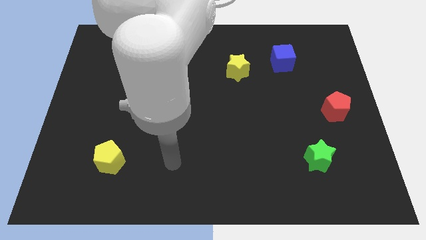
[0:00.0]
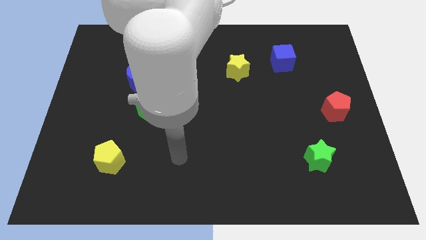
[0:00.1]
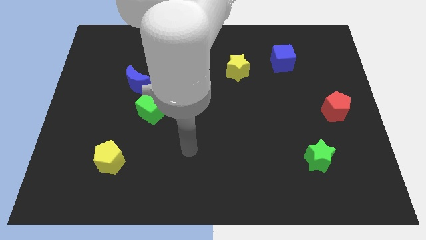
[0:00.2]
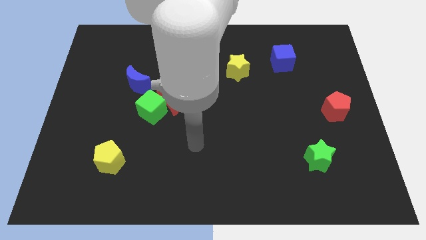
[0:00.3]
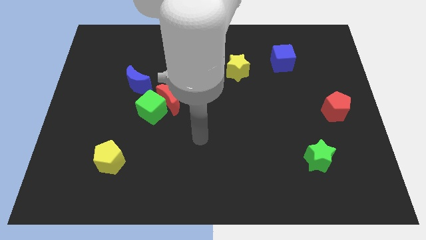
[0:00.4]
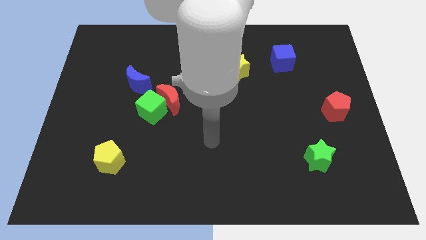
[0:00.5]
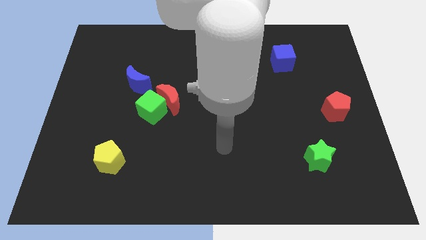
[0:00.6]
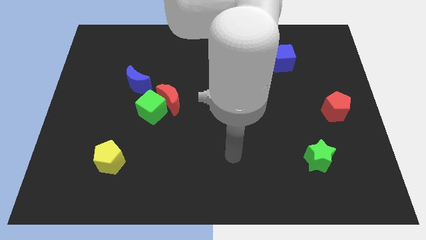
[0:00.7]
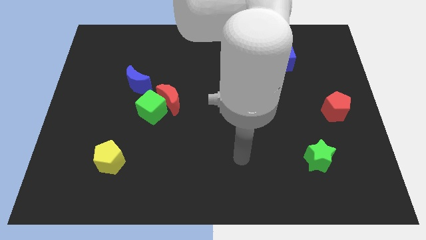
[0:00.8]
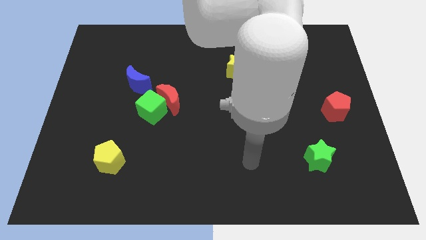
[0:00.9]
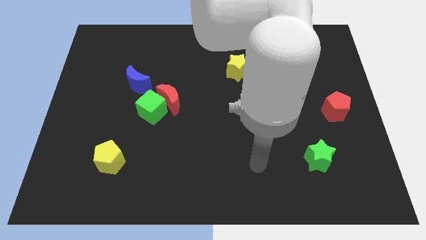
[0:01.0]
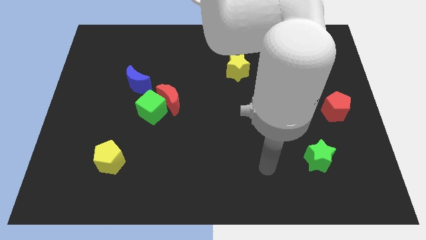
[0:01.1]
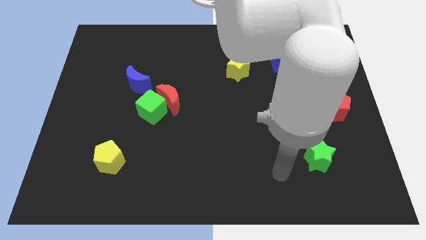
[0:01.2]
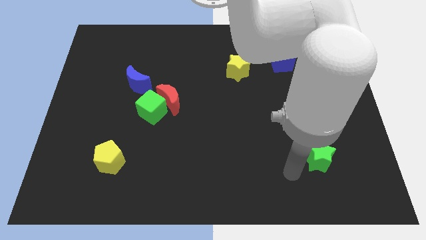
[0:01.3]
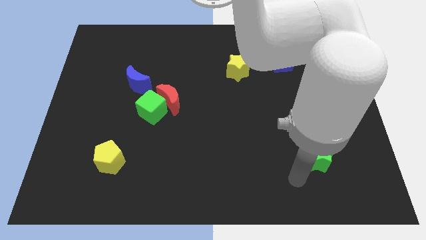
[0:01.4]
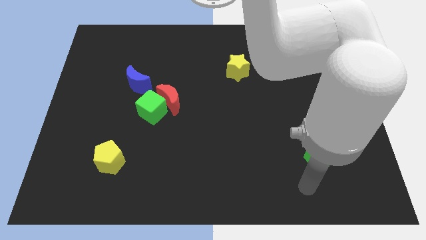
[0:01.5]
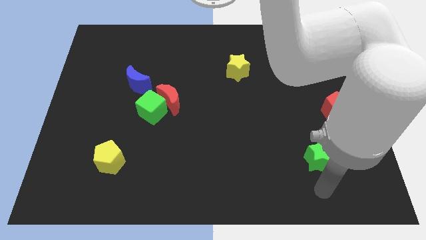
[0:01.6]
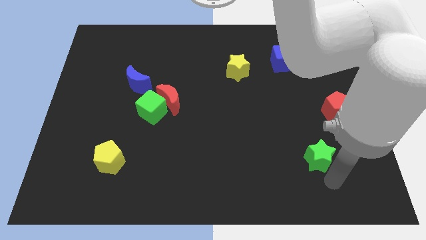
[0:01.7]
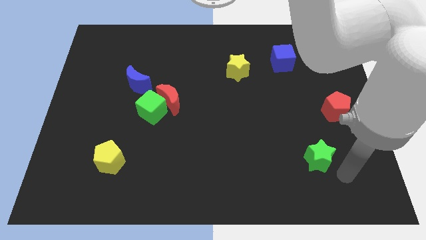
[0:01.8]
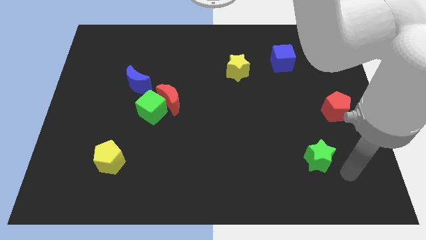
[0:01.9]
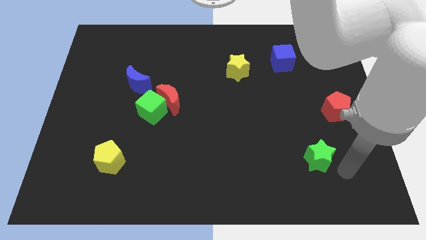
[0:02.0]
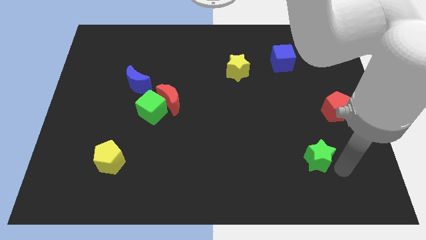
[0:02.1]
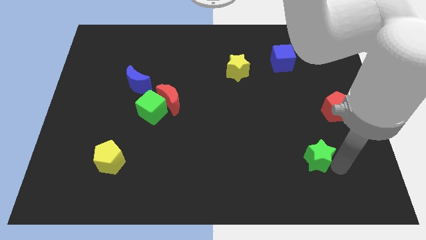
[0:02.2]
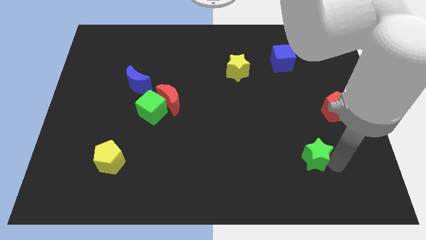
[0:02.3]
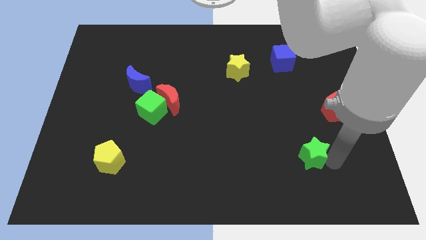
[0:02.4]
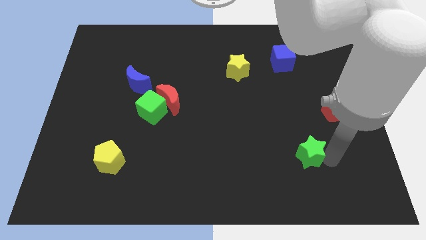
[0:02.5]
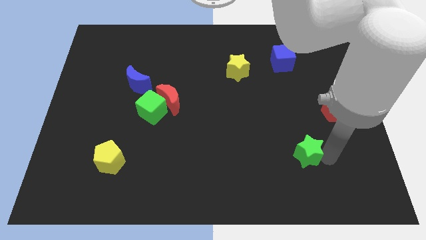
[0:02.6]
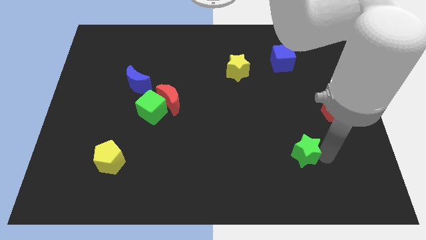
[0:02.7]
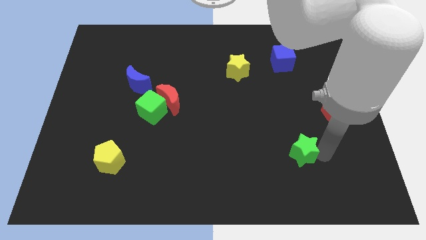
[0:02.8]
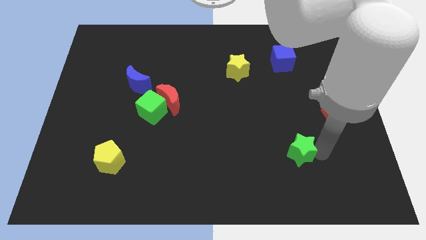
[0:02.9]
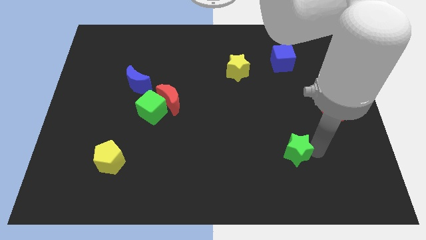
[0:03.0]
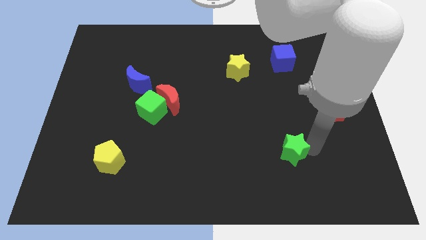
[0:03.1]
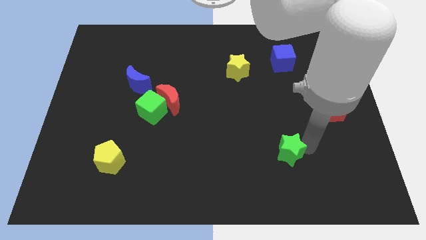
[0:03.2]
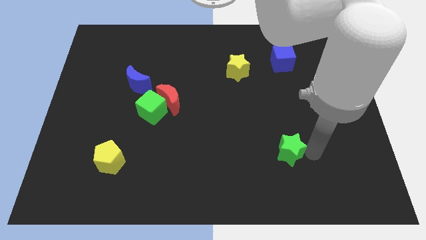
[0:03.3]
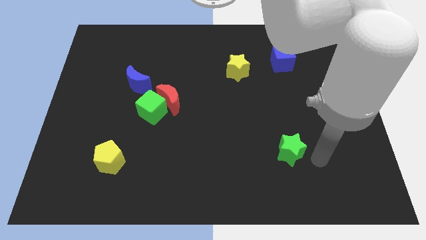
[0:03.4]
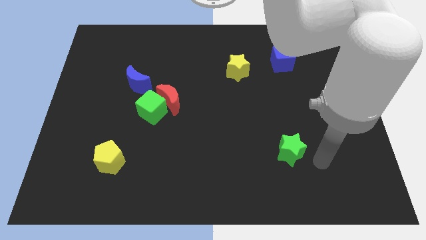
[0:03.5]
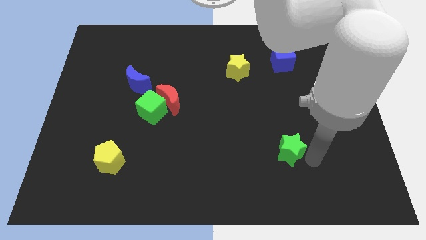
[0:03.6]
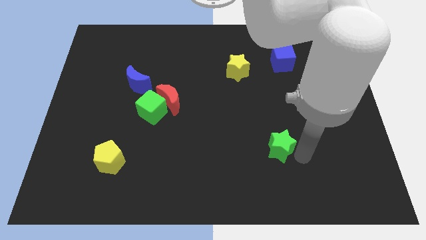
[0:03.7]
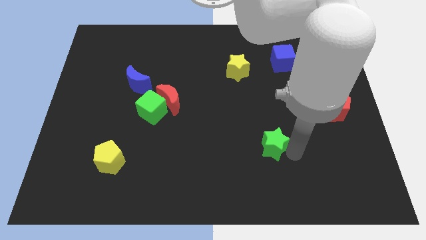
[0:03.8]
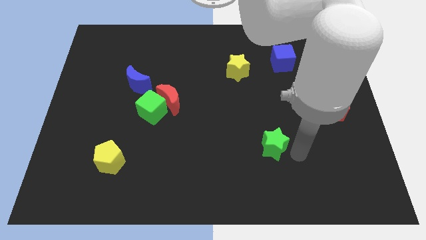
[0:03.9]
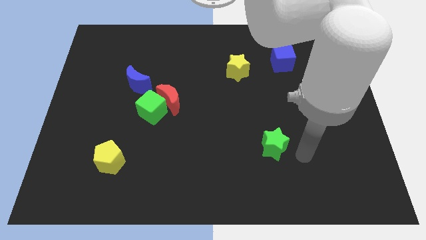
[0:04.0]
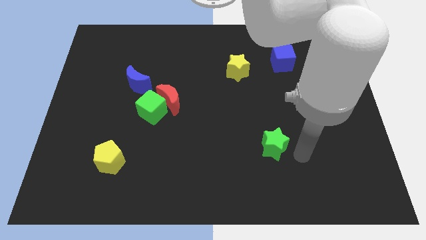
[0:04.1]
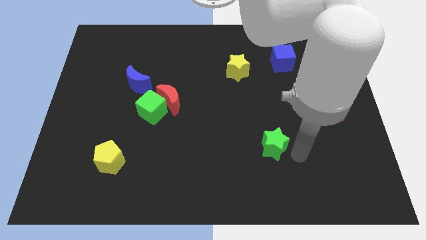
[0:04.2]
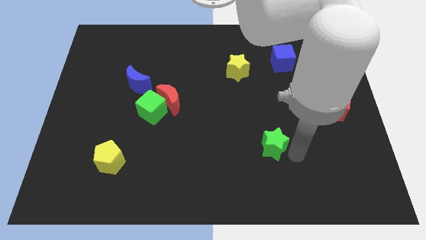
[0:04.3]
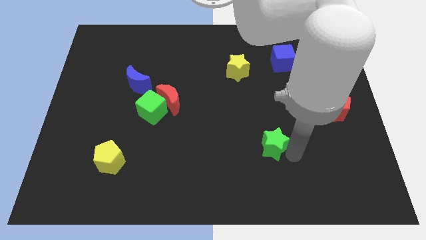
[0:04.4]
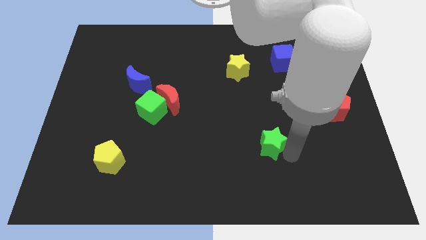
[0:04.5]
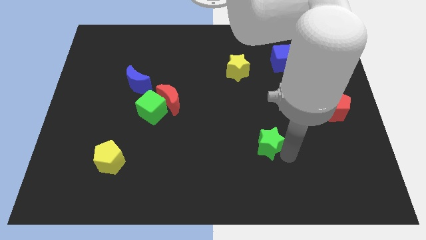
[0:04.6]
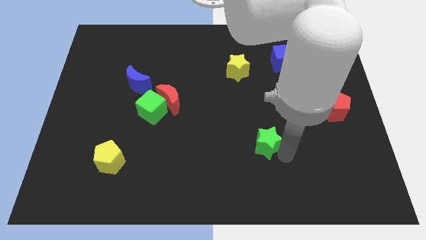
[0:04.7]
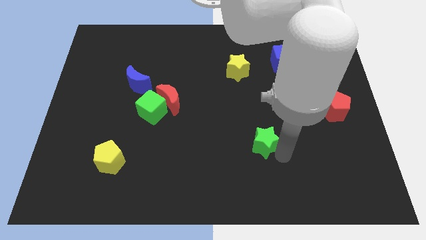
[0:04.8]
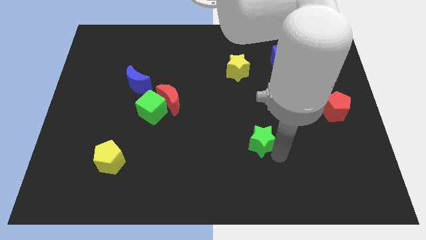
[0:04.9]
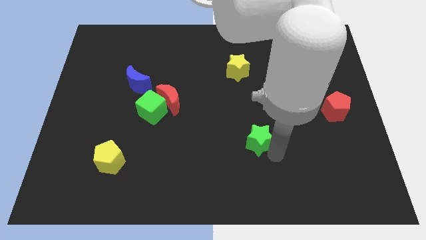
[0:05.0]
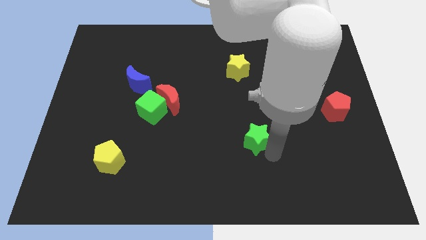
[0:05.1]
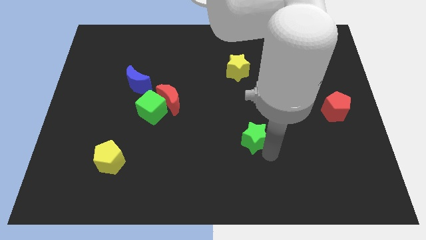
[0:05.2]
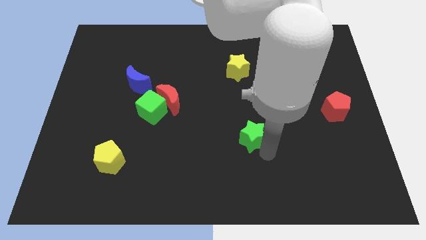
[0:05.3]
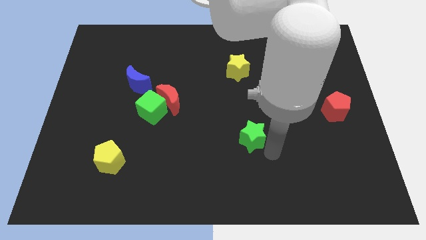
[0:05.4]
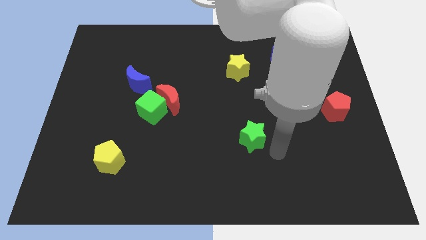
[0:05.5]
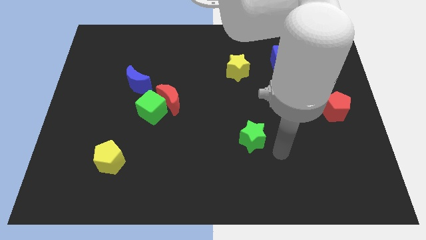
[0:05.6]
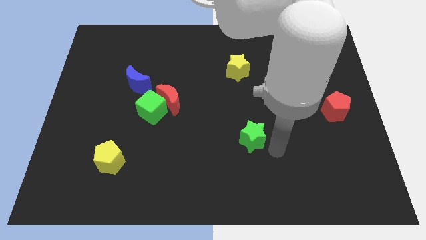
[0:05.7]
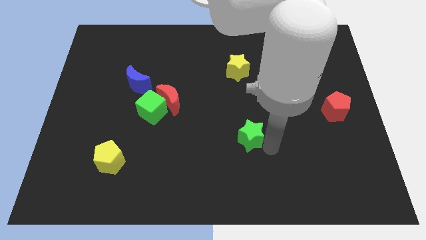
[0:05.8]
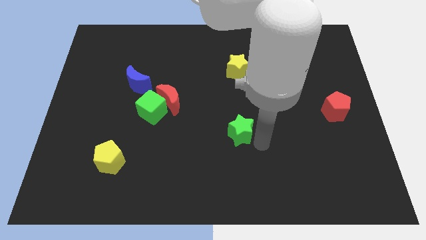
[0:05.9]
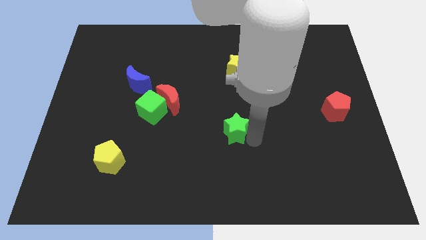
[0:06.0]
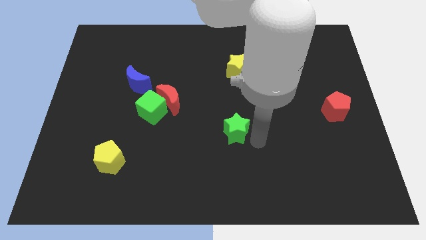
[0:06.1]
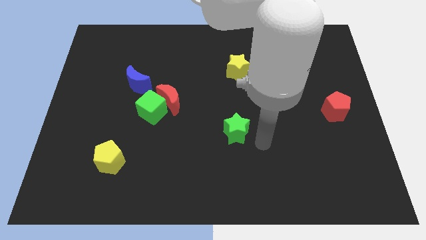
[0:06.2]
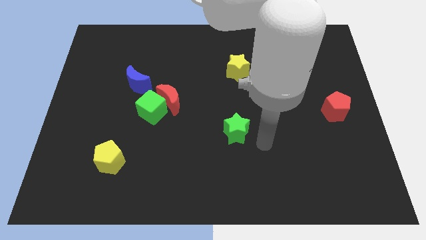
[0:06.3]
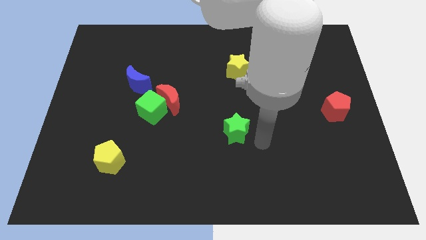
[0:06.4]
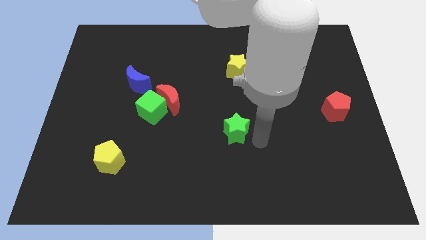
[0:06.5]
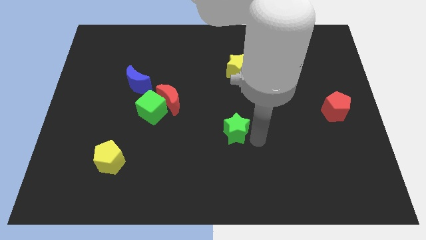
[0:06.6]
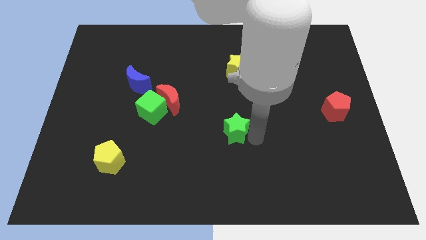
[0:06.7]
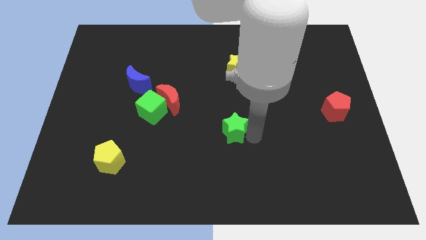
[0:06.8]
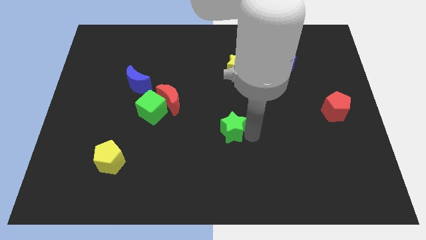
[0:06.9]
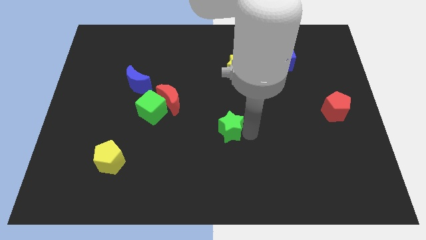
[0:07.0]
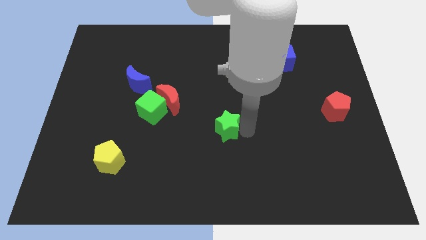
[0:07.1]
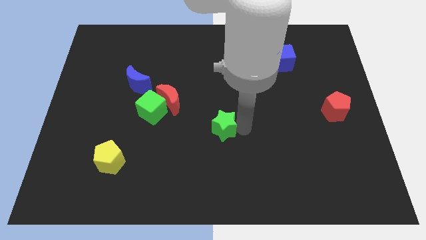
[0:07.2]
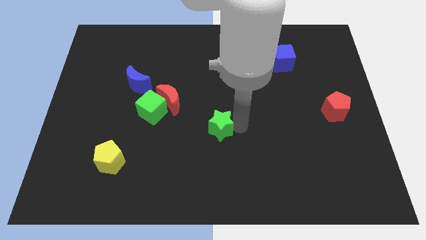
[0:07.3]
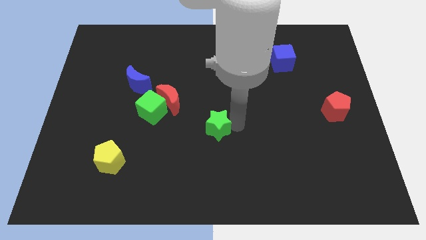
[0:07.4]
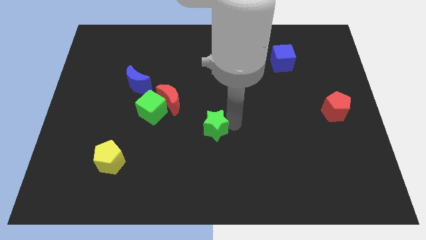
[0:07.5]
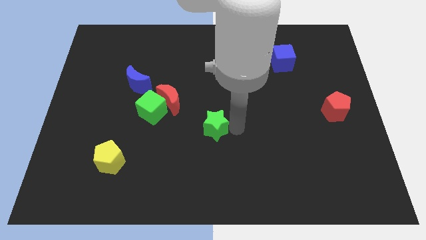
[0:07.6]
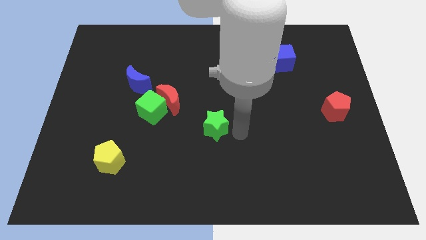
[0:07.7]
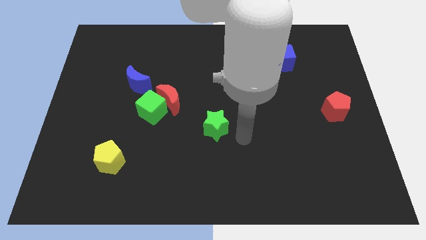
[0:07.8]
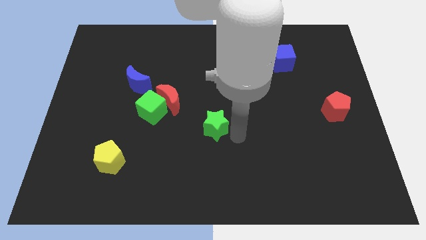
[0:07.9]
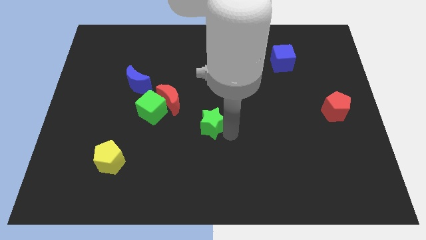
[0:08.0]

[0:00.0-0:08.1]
put the green star diagonally down and to the right of the red moon
